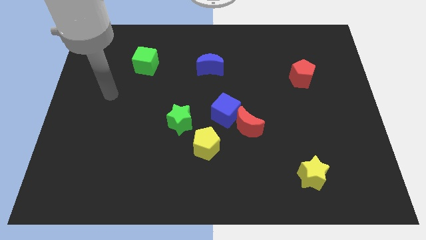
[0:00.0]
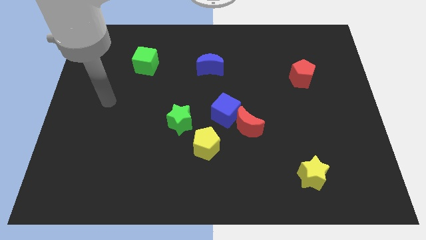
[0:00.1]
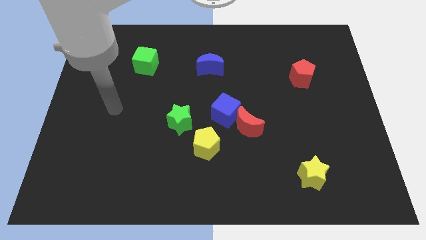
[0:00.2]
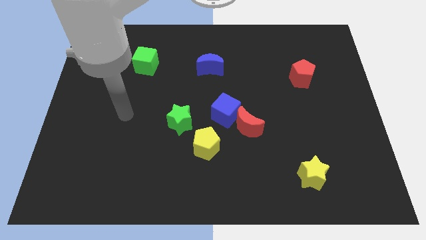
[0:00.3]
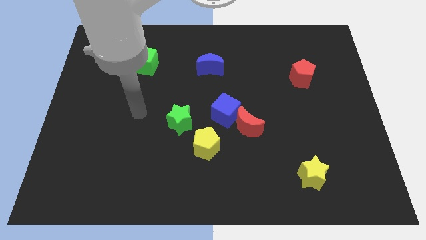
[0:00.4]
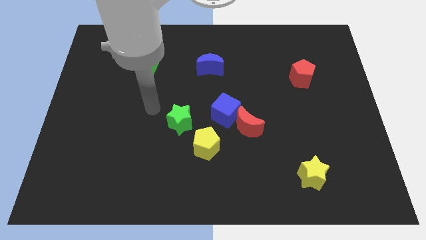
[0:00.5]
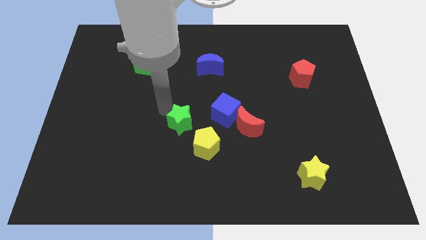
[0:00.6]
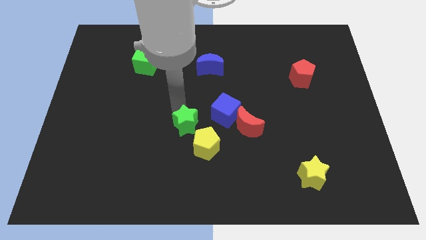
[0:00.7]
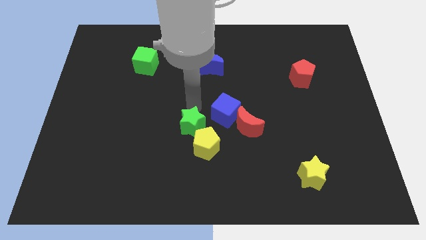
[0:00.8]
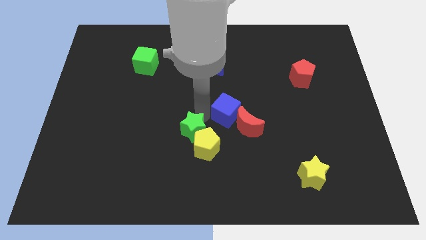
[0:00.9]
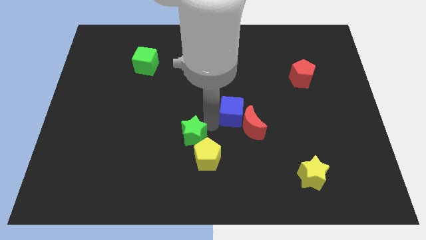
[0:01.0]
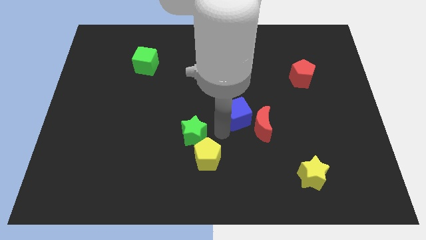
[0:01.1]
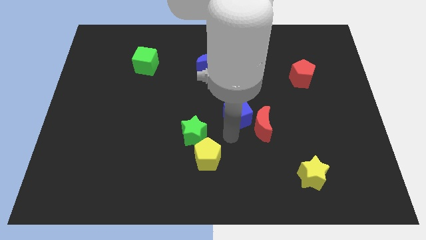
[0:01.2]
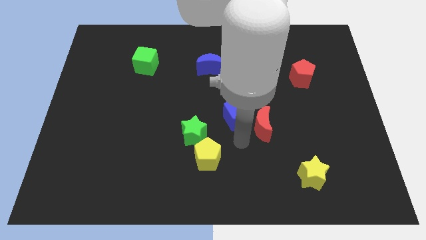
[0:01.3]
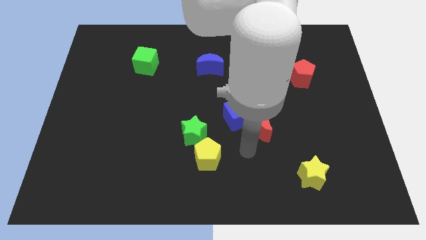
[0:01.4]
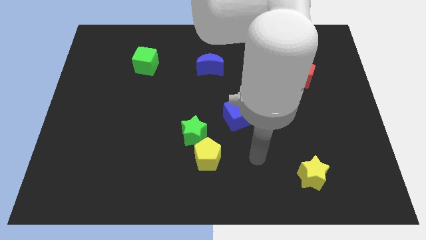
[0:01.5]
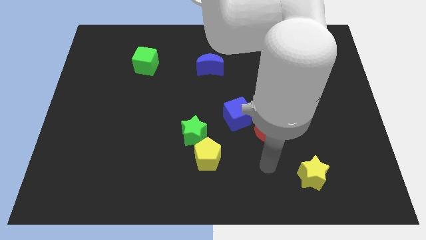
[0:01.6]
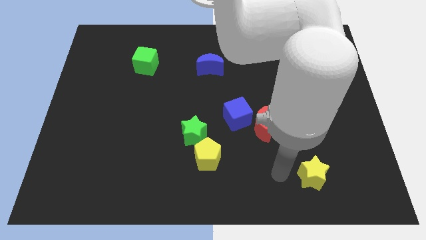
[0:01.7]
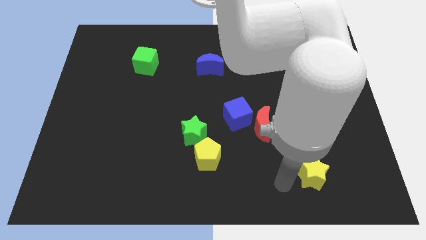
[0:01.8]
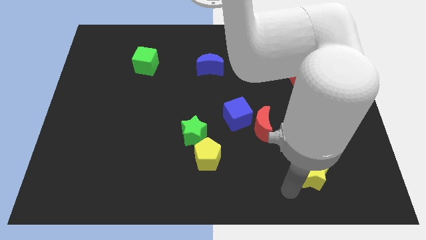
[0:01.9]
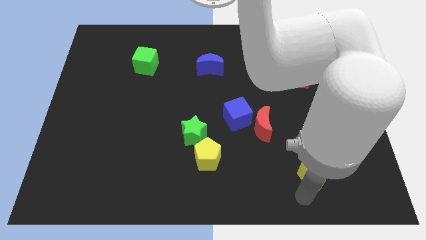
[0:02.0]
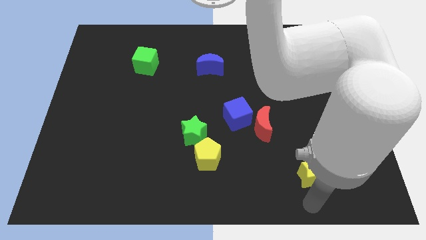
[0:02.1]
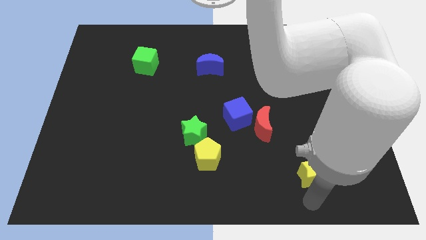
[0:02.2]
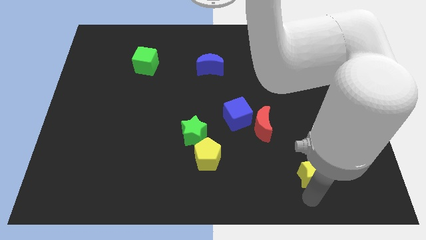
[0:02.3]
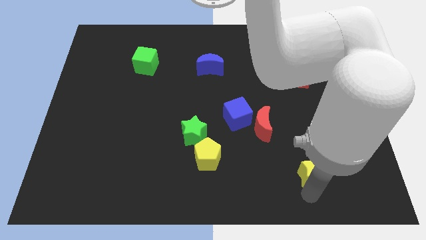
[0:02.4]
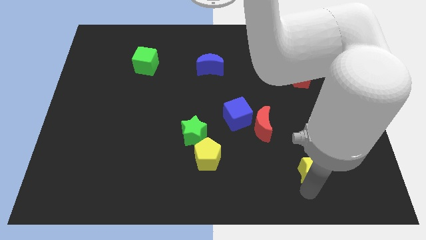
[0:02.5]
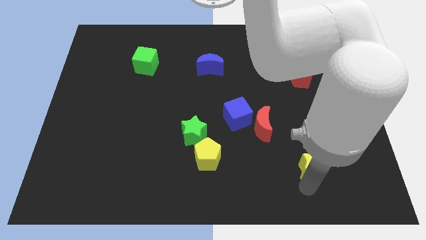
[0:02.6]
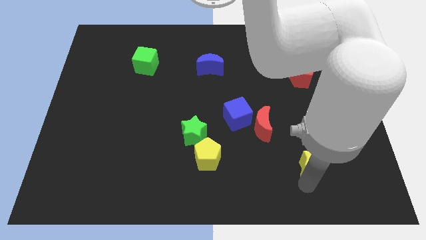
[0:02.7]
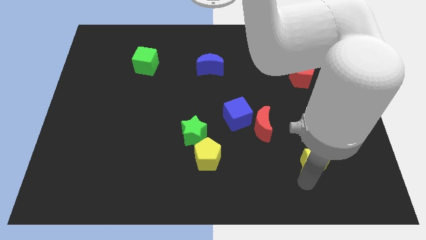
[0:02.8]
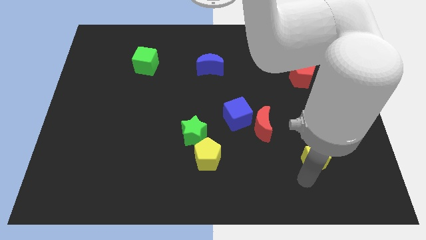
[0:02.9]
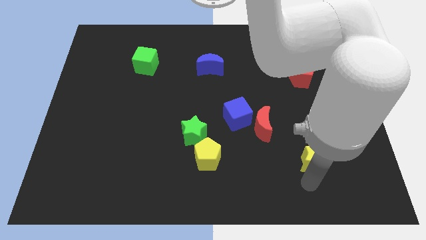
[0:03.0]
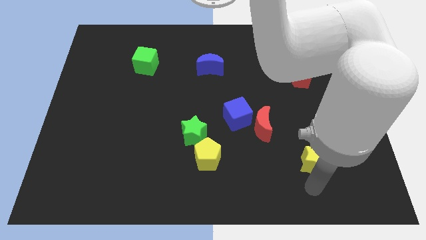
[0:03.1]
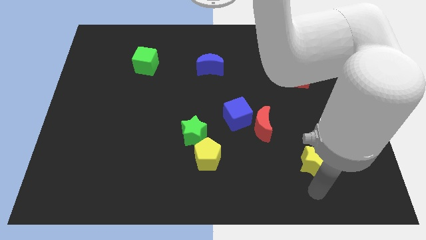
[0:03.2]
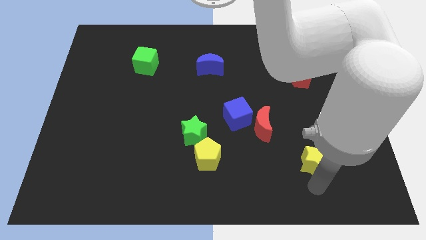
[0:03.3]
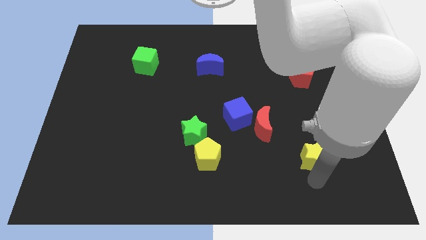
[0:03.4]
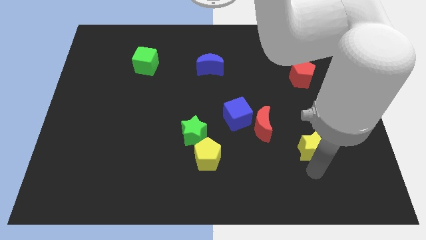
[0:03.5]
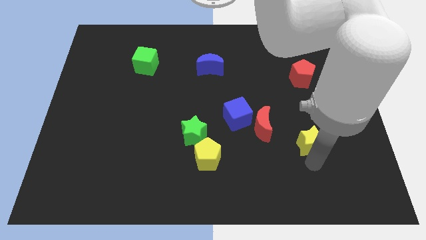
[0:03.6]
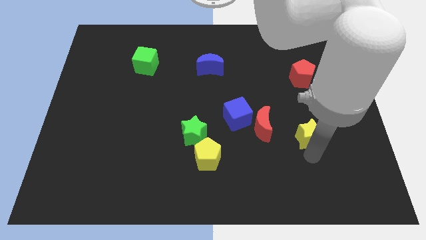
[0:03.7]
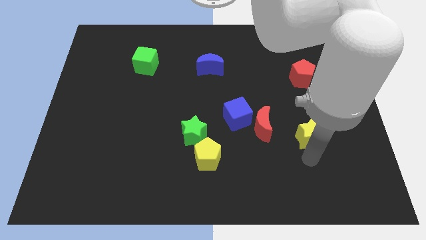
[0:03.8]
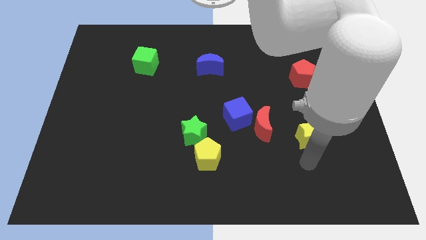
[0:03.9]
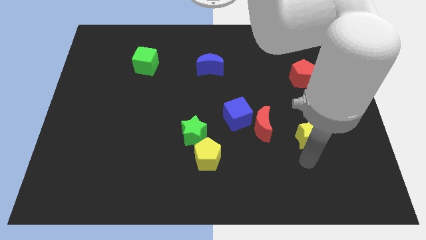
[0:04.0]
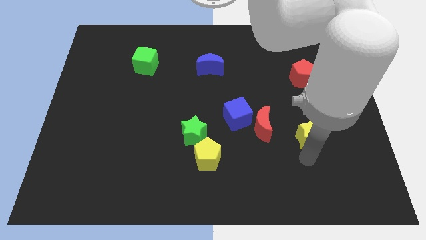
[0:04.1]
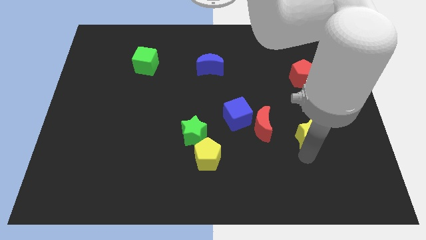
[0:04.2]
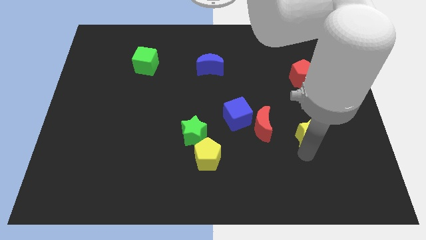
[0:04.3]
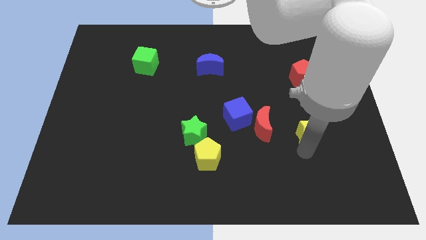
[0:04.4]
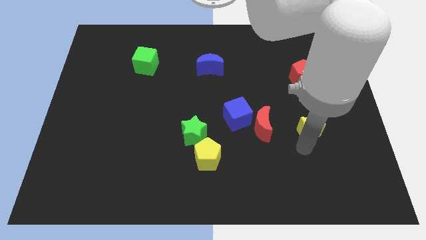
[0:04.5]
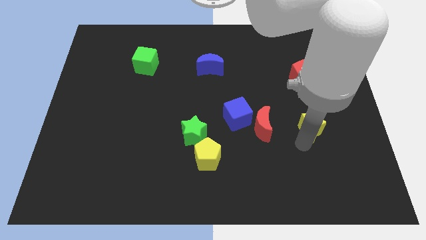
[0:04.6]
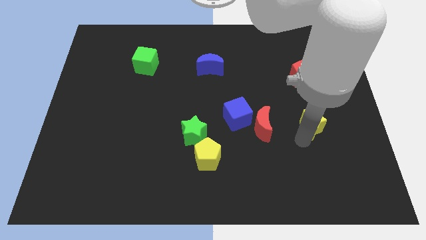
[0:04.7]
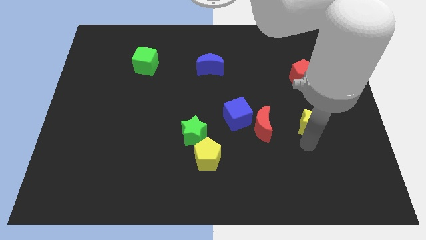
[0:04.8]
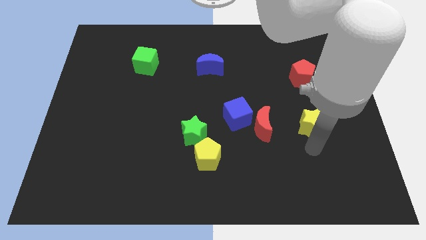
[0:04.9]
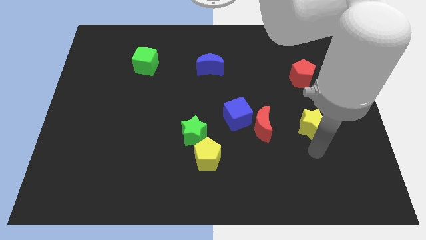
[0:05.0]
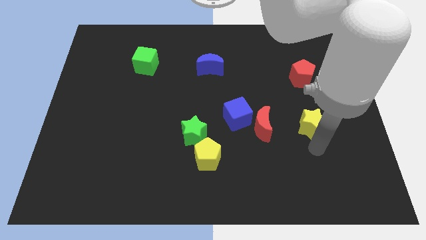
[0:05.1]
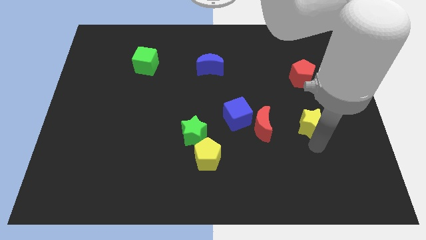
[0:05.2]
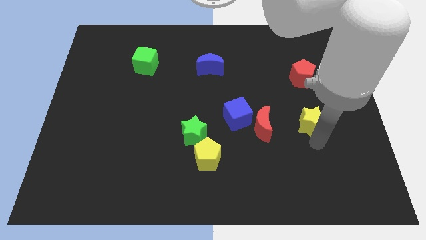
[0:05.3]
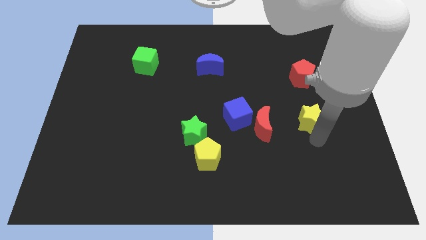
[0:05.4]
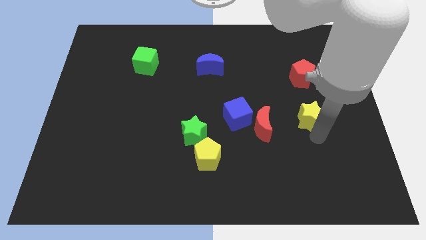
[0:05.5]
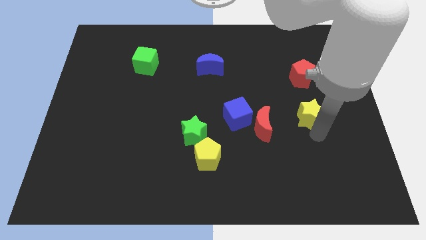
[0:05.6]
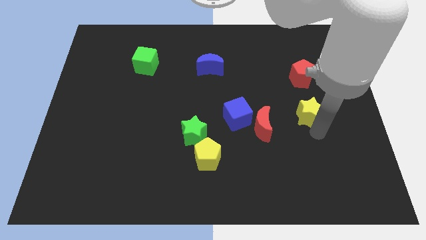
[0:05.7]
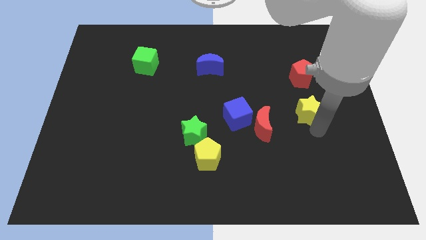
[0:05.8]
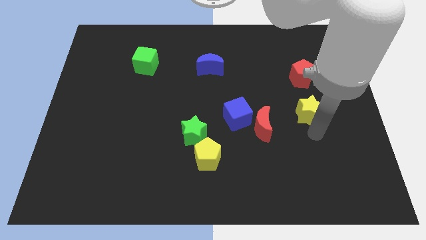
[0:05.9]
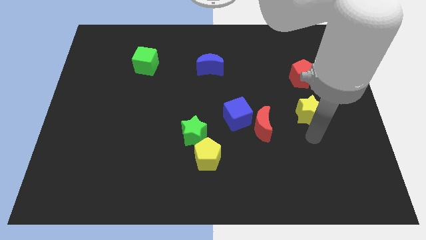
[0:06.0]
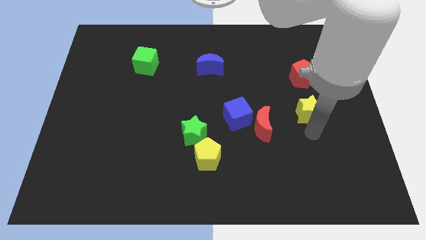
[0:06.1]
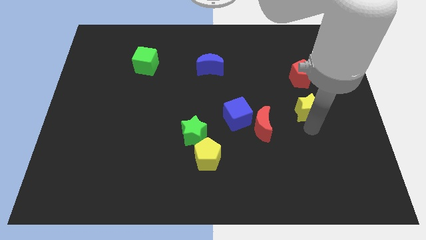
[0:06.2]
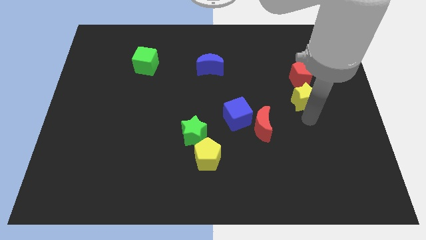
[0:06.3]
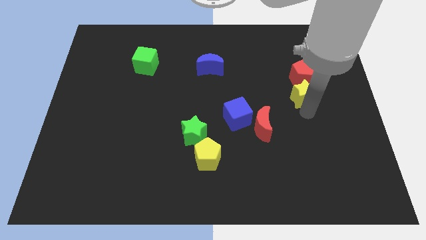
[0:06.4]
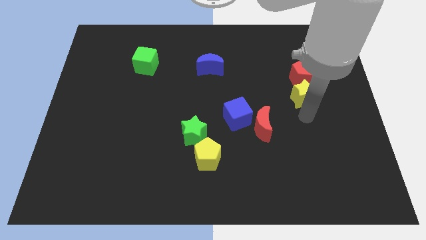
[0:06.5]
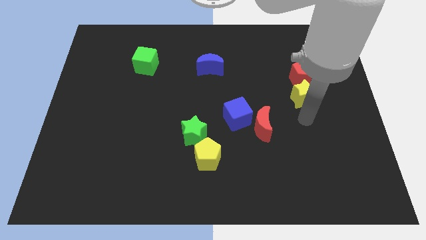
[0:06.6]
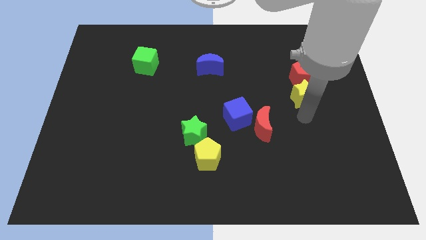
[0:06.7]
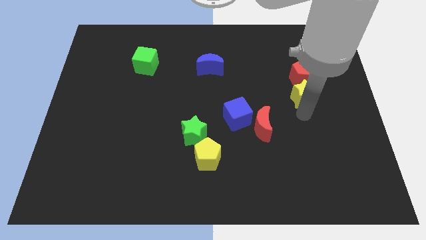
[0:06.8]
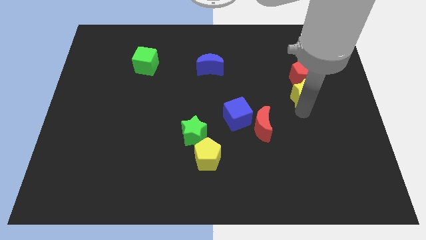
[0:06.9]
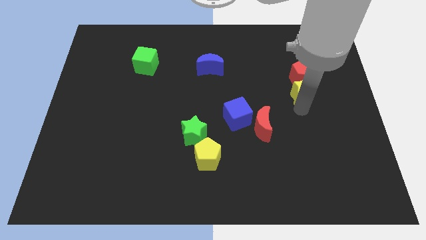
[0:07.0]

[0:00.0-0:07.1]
push the yellow star close to the red pentagon
